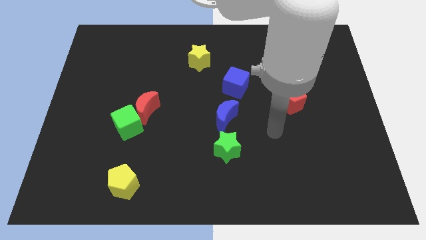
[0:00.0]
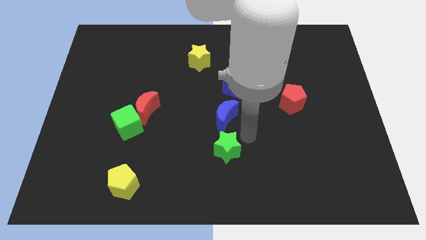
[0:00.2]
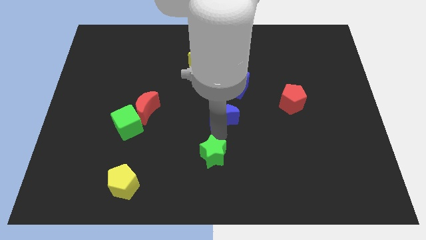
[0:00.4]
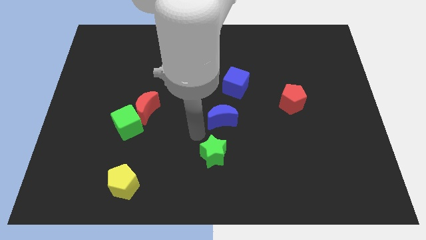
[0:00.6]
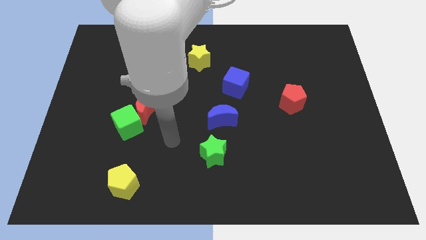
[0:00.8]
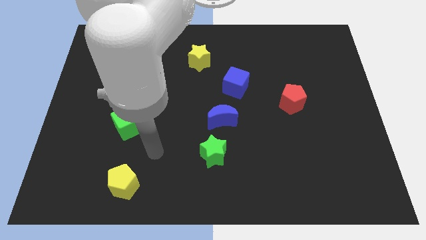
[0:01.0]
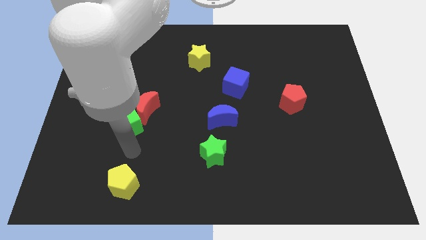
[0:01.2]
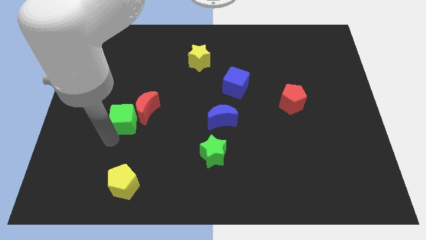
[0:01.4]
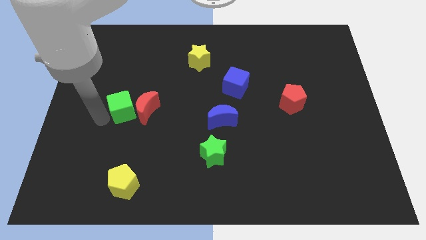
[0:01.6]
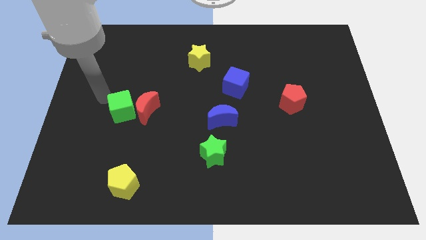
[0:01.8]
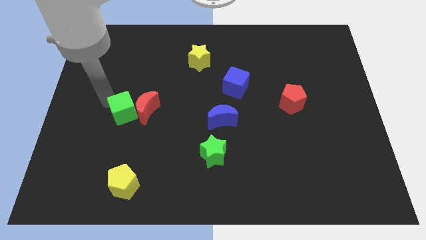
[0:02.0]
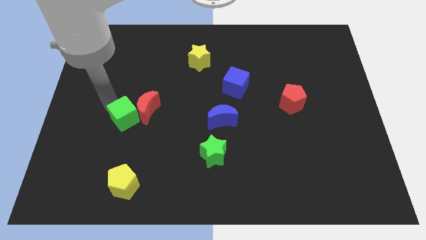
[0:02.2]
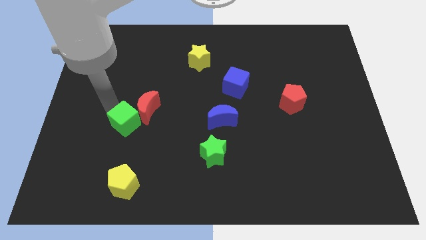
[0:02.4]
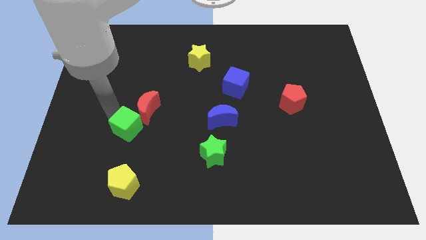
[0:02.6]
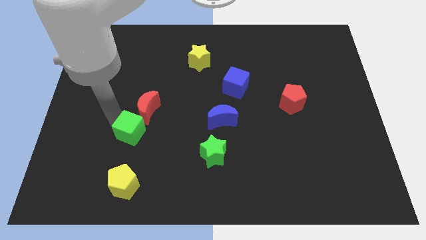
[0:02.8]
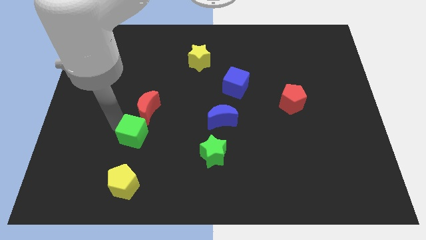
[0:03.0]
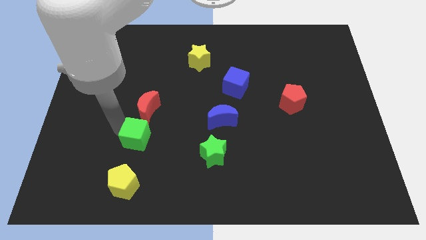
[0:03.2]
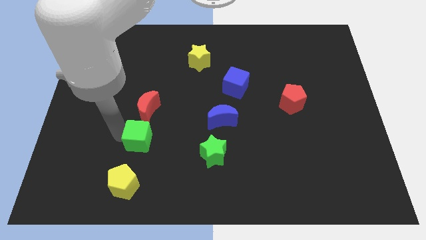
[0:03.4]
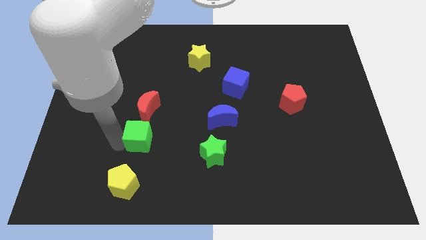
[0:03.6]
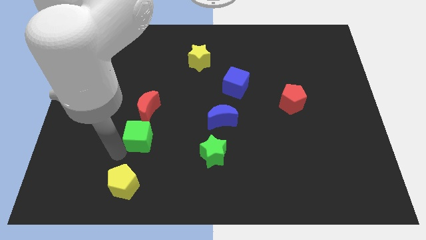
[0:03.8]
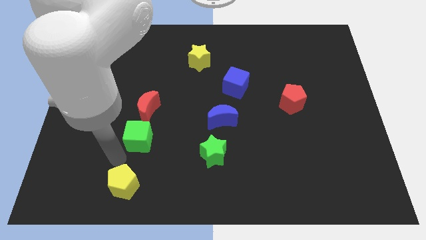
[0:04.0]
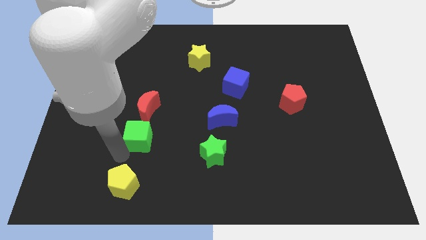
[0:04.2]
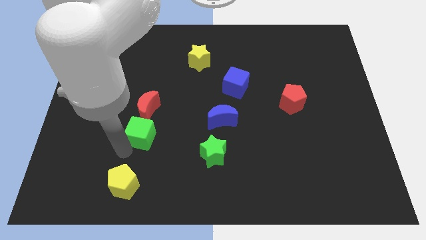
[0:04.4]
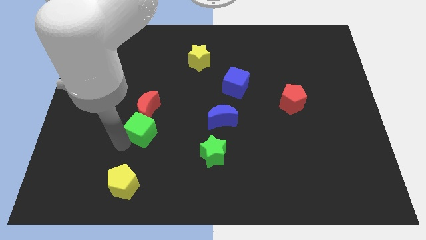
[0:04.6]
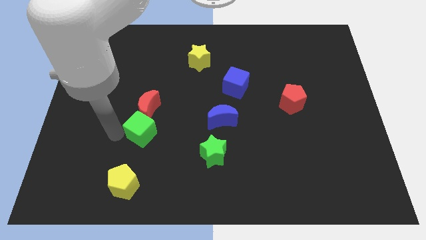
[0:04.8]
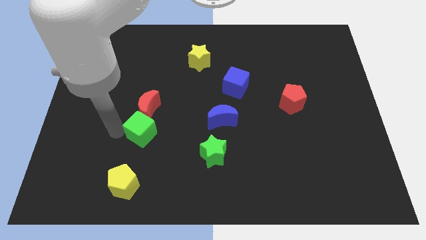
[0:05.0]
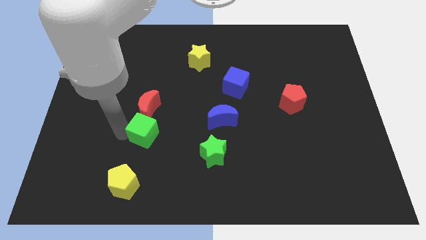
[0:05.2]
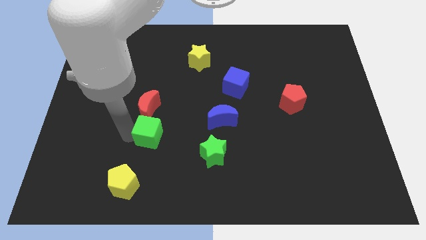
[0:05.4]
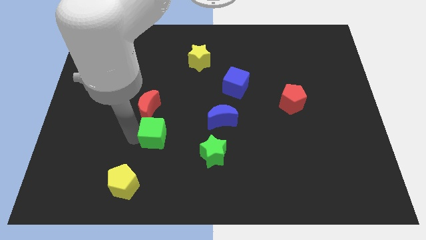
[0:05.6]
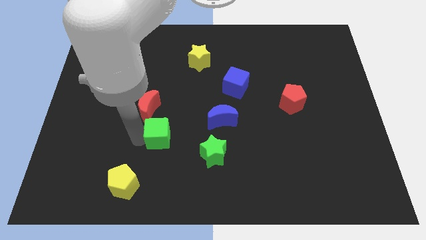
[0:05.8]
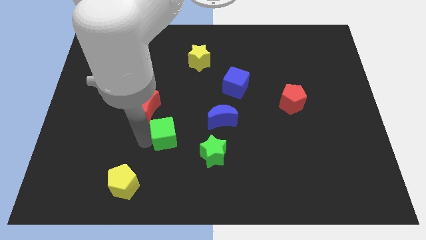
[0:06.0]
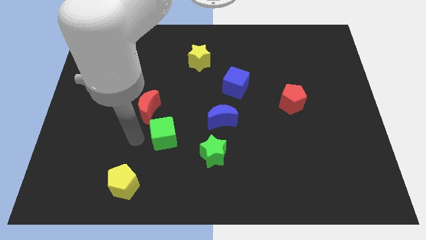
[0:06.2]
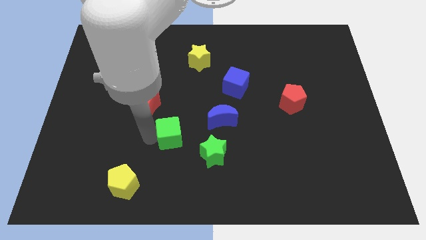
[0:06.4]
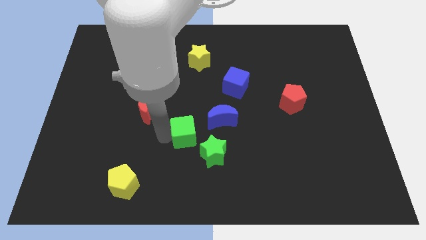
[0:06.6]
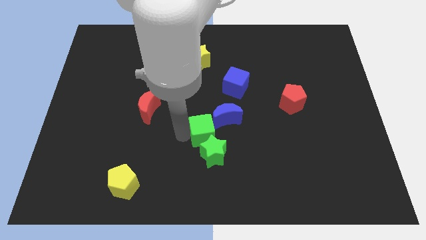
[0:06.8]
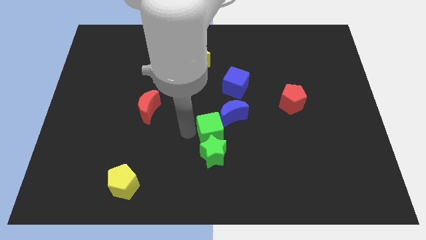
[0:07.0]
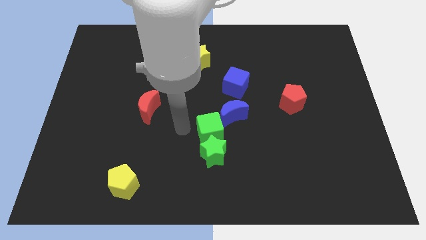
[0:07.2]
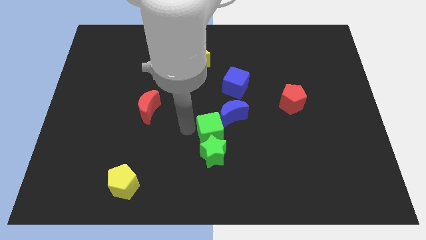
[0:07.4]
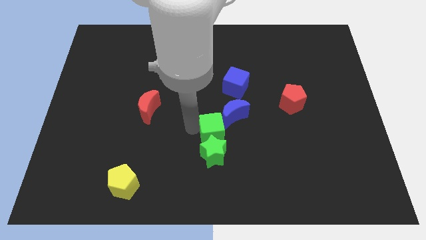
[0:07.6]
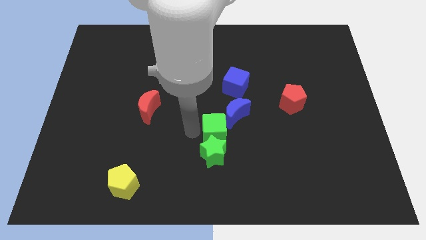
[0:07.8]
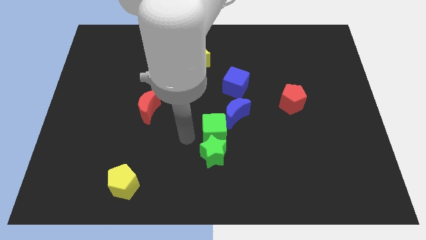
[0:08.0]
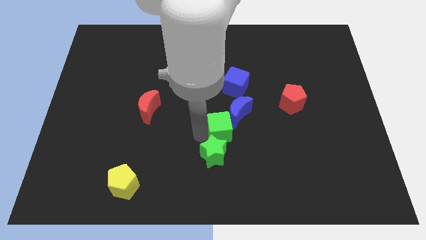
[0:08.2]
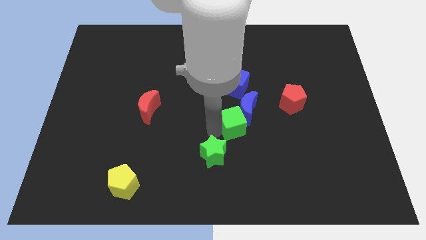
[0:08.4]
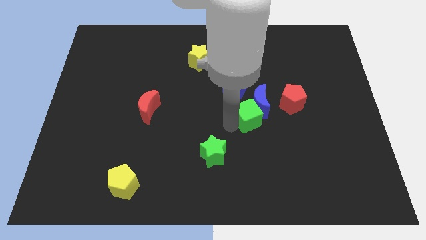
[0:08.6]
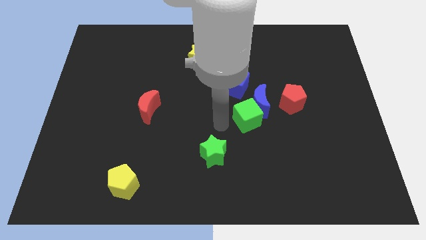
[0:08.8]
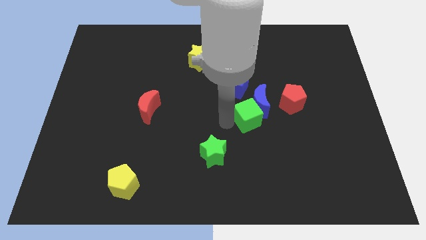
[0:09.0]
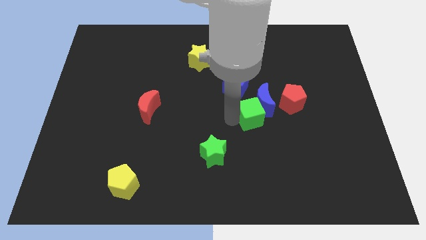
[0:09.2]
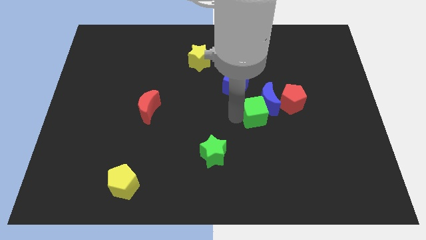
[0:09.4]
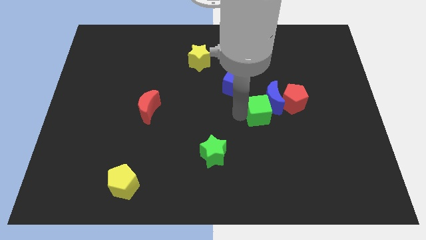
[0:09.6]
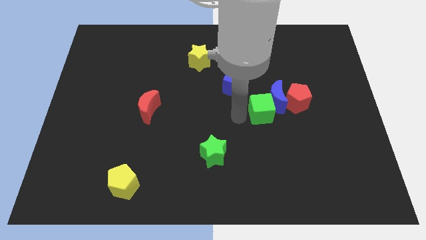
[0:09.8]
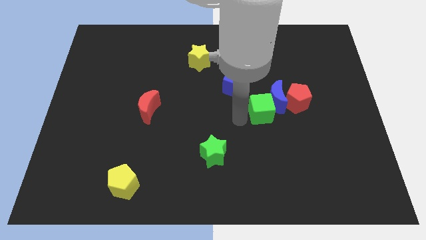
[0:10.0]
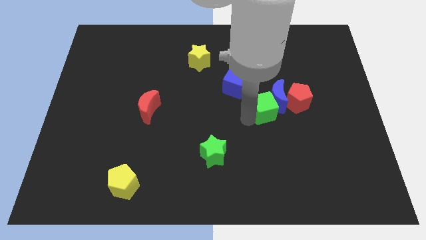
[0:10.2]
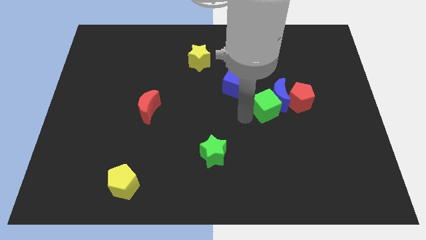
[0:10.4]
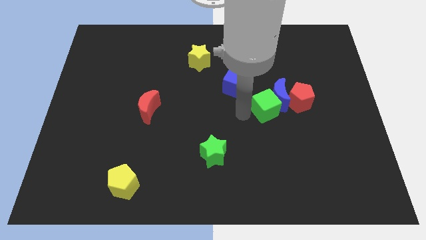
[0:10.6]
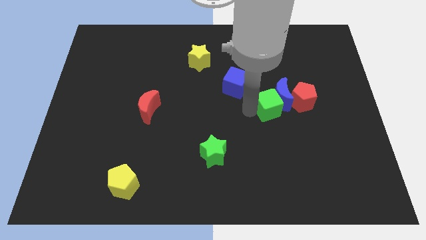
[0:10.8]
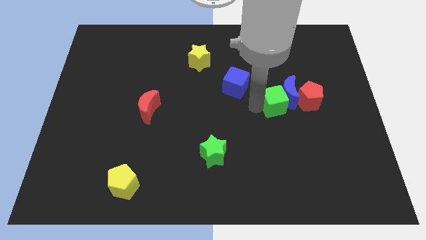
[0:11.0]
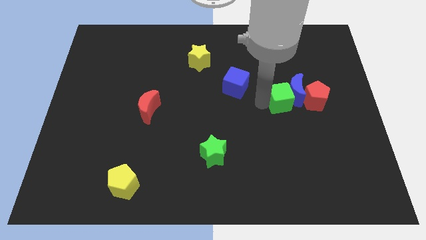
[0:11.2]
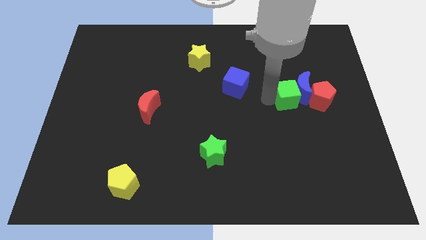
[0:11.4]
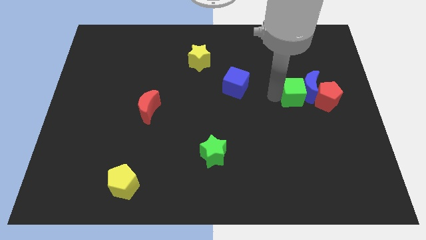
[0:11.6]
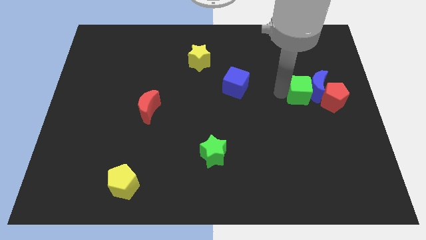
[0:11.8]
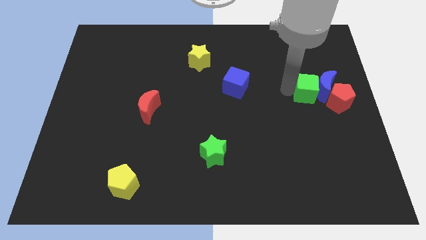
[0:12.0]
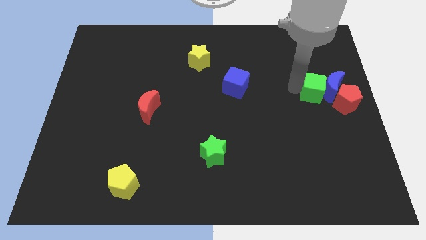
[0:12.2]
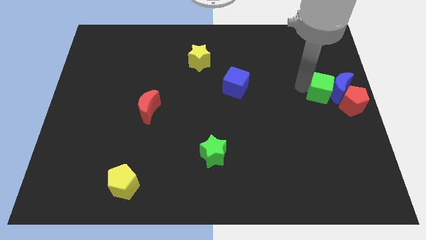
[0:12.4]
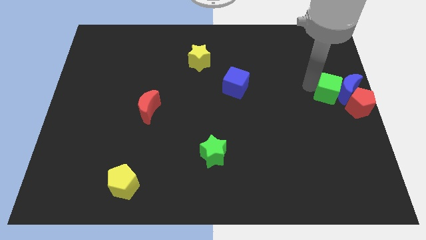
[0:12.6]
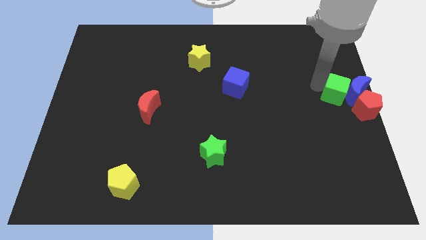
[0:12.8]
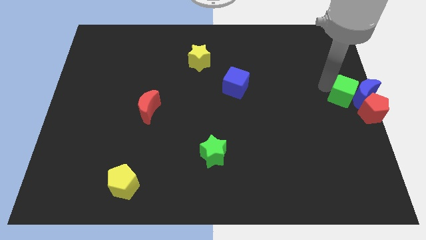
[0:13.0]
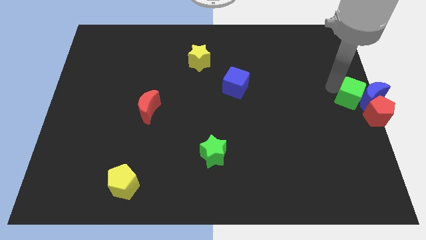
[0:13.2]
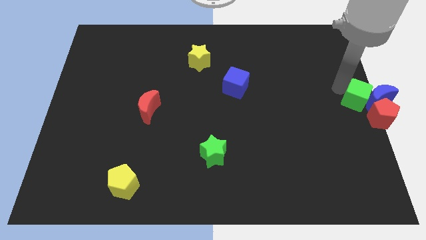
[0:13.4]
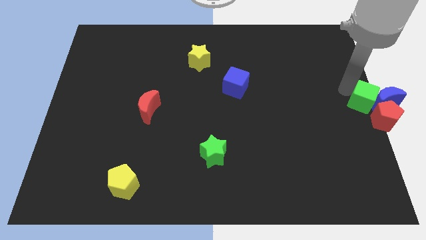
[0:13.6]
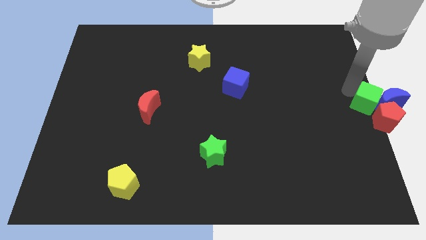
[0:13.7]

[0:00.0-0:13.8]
push the green cube next to the red pentagon
